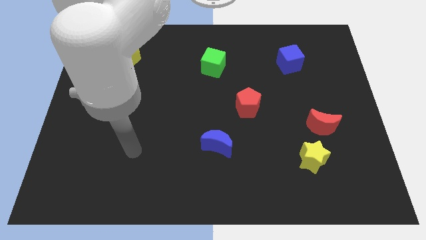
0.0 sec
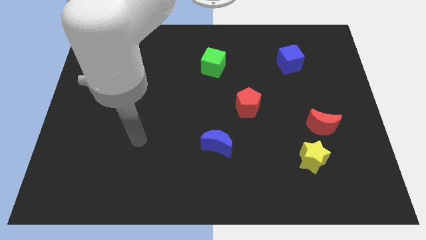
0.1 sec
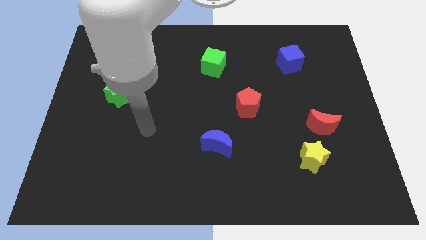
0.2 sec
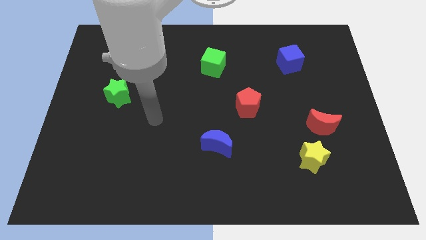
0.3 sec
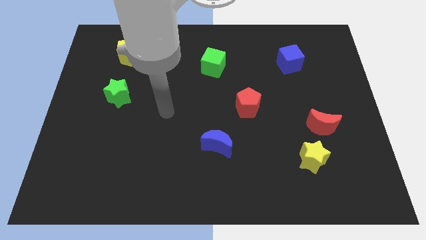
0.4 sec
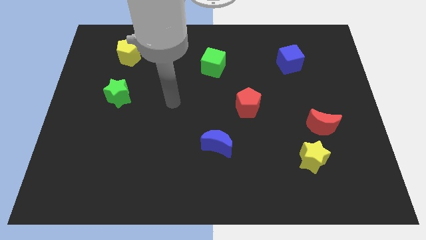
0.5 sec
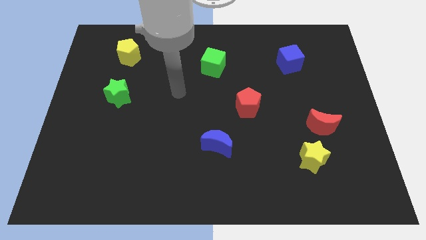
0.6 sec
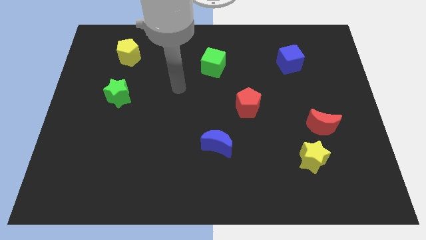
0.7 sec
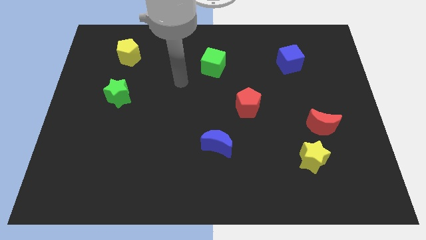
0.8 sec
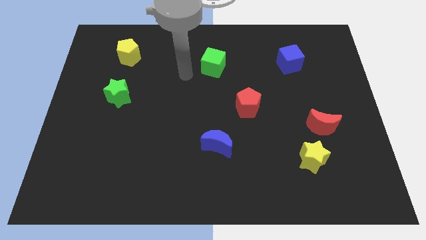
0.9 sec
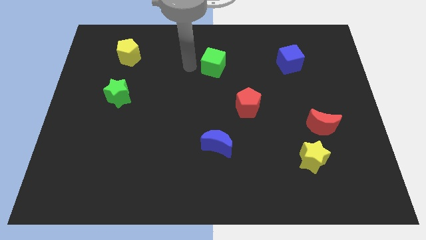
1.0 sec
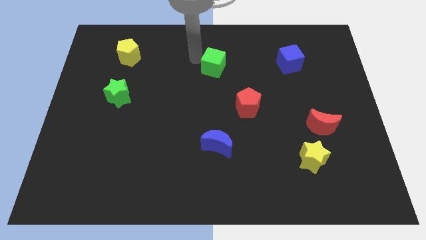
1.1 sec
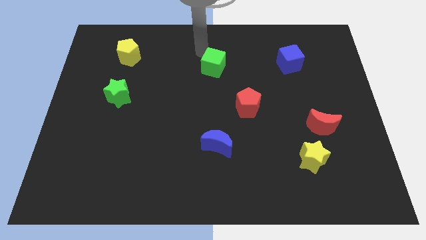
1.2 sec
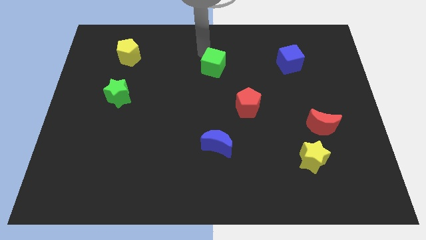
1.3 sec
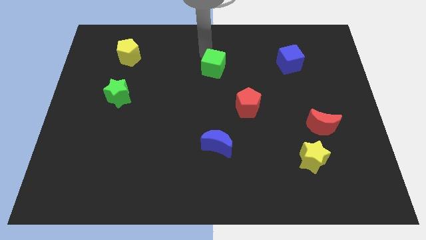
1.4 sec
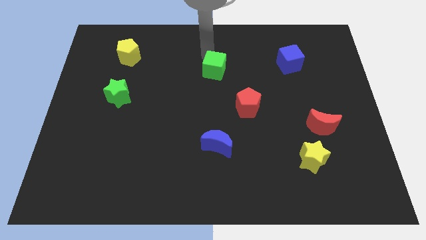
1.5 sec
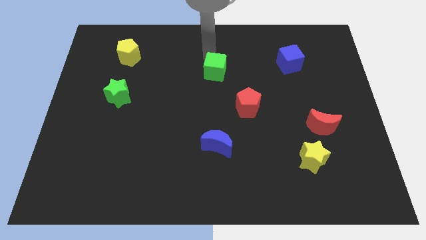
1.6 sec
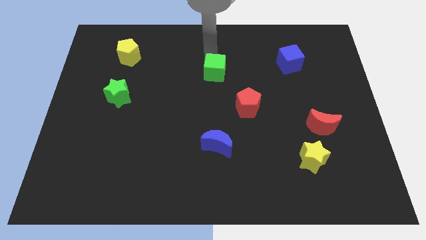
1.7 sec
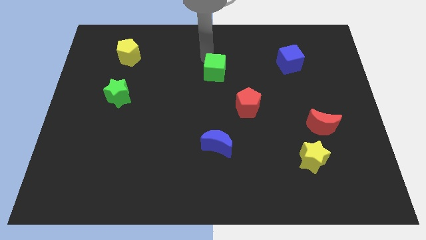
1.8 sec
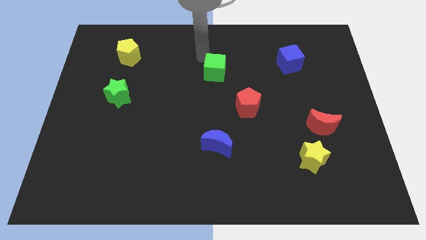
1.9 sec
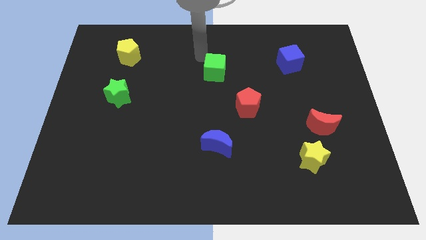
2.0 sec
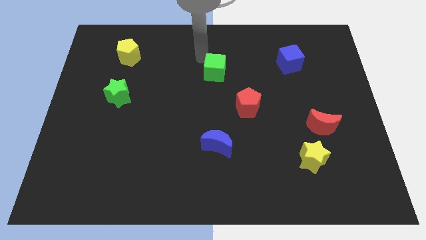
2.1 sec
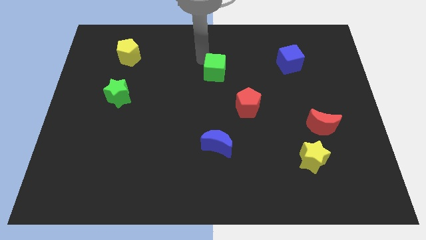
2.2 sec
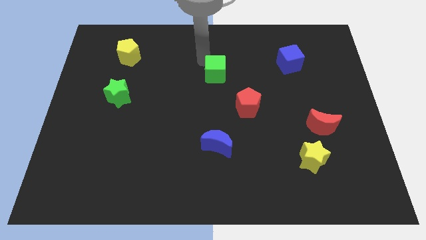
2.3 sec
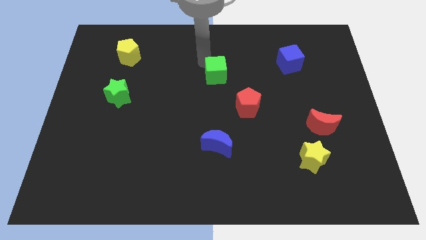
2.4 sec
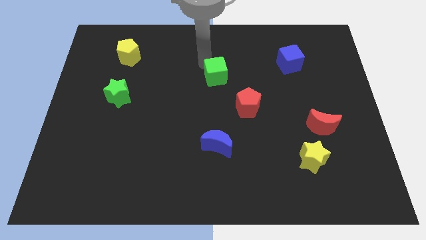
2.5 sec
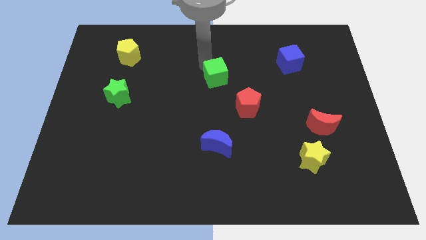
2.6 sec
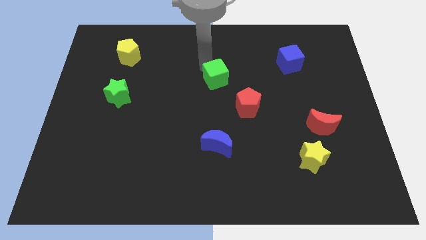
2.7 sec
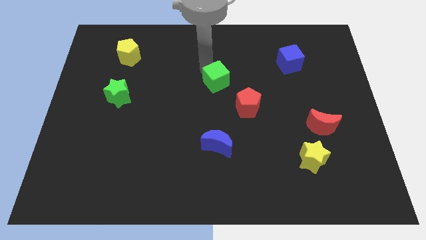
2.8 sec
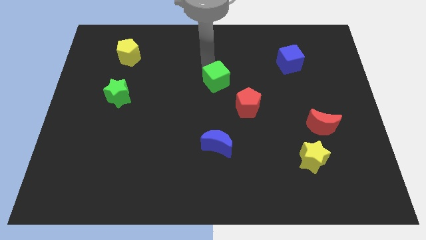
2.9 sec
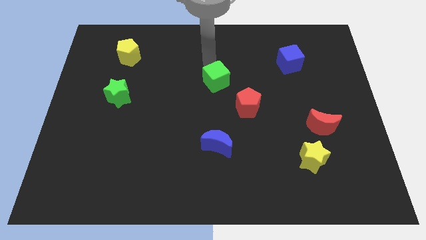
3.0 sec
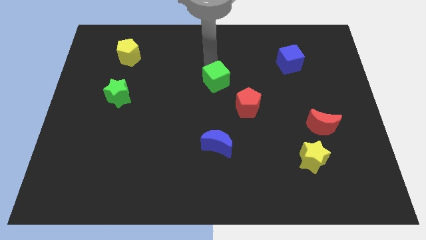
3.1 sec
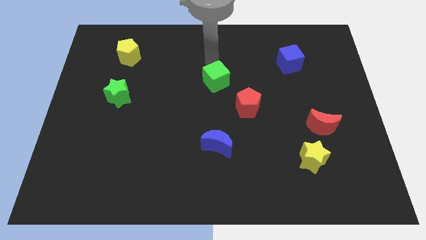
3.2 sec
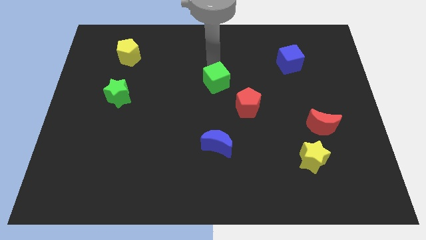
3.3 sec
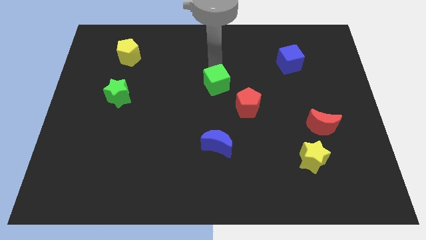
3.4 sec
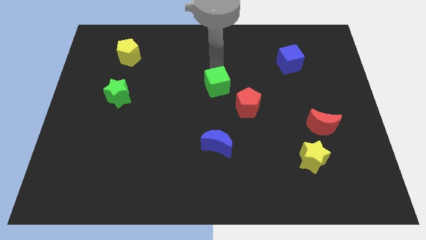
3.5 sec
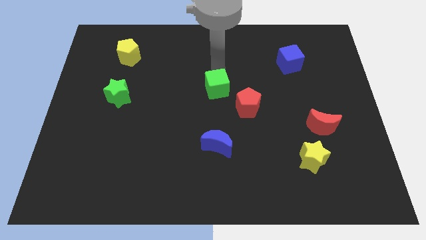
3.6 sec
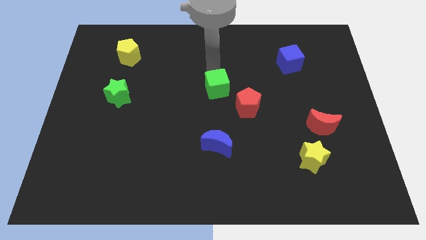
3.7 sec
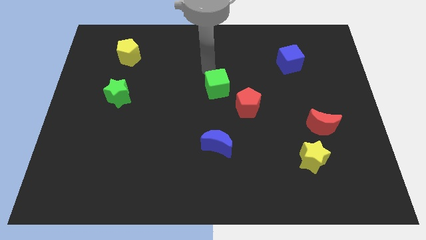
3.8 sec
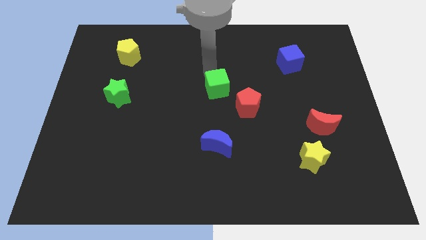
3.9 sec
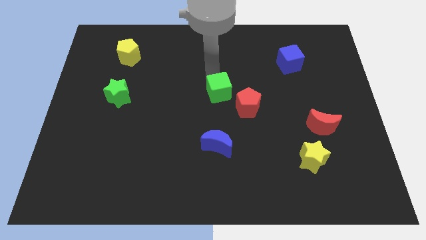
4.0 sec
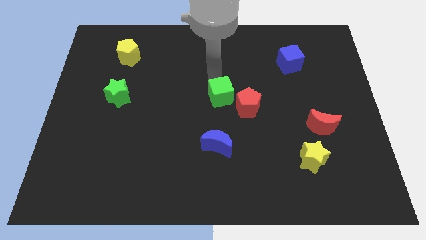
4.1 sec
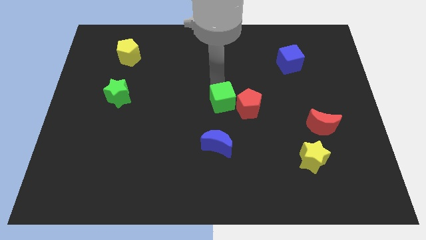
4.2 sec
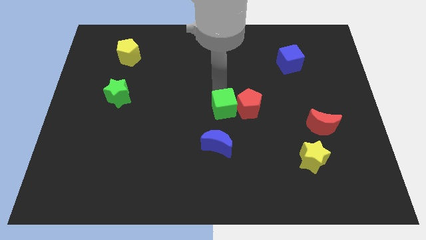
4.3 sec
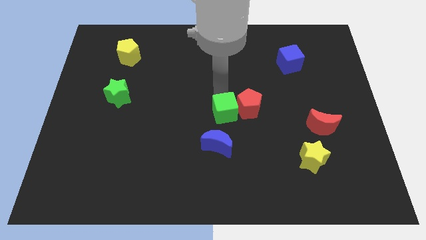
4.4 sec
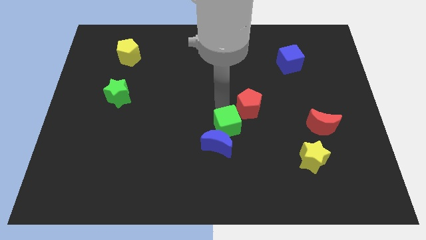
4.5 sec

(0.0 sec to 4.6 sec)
put the green cube below the red pentagon

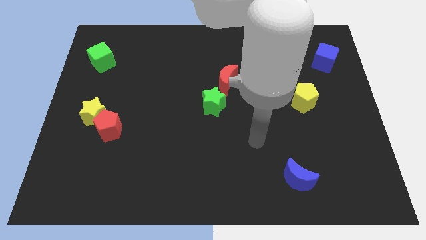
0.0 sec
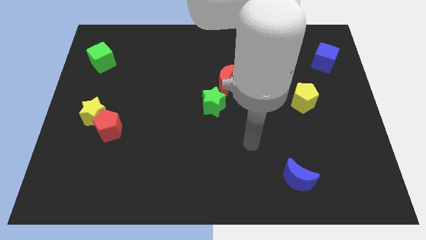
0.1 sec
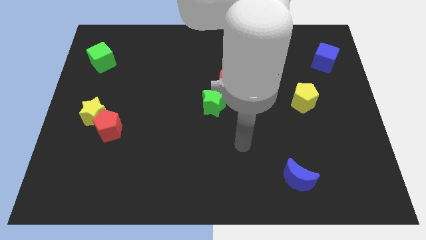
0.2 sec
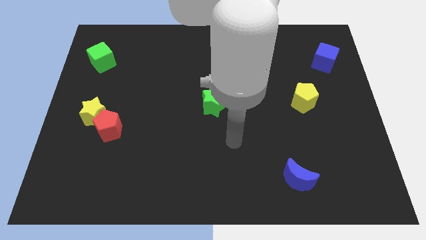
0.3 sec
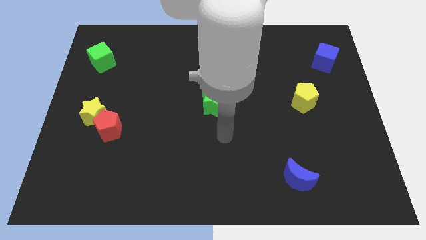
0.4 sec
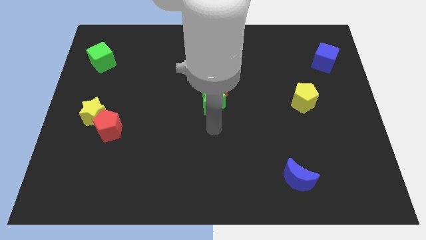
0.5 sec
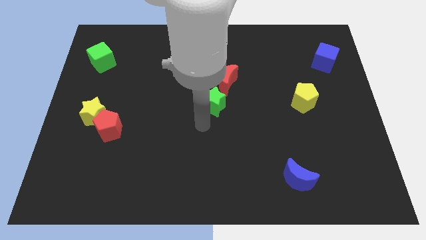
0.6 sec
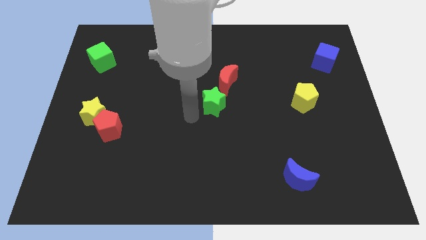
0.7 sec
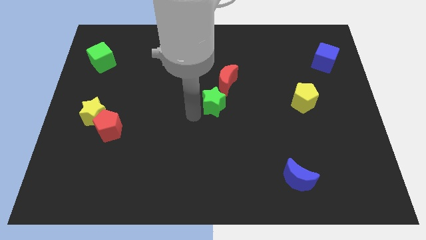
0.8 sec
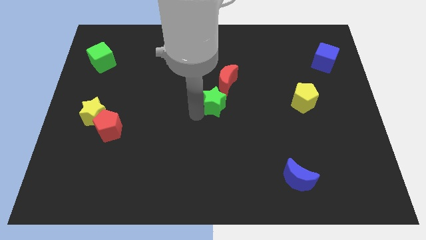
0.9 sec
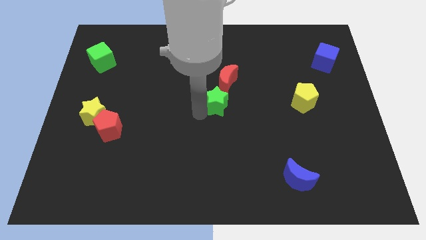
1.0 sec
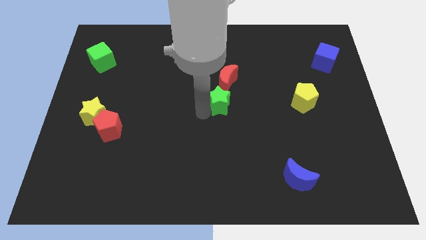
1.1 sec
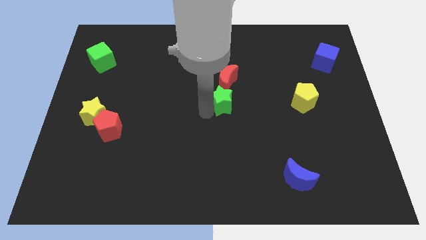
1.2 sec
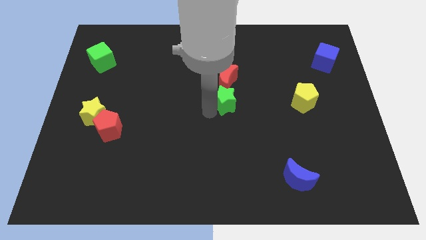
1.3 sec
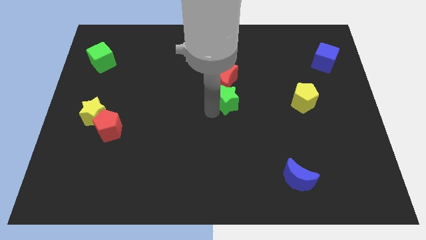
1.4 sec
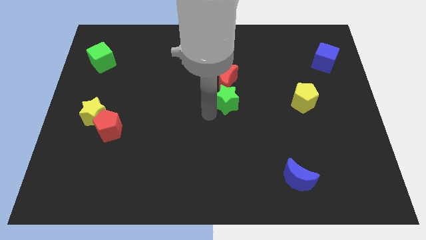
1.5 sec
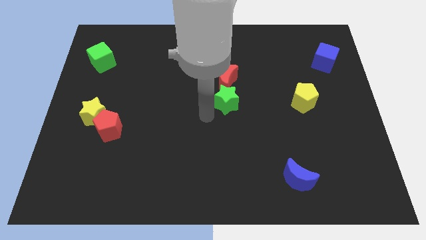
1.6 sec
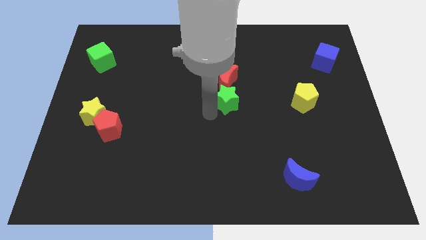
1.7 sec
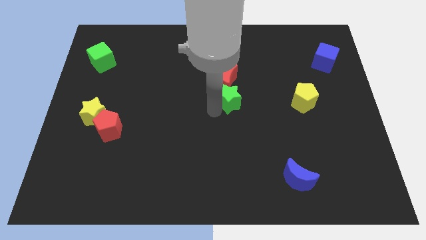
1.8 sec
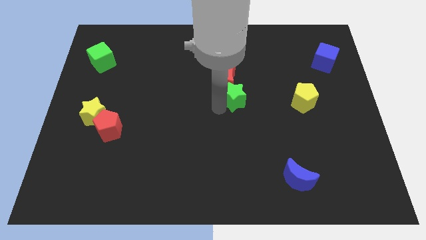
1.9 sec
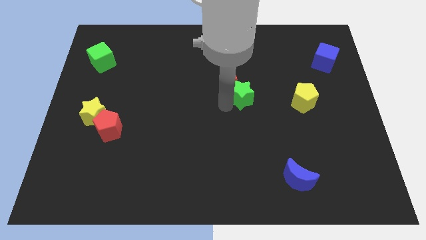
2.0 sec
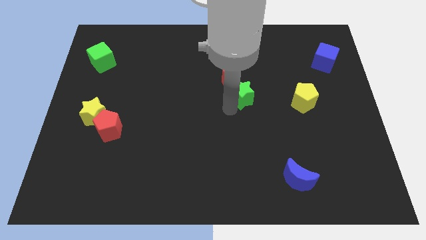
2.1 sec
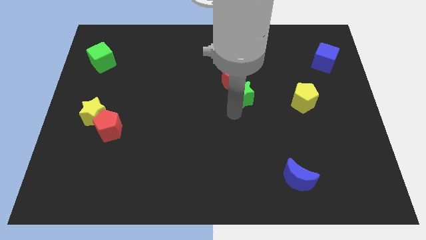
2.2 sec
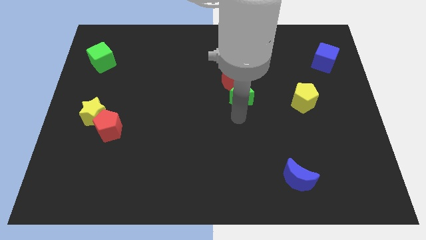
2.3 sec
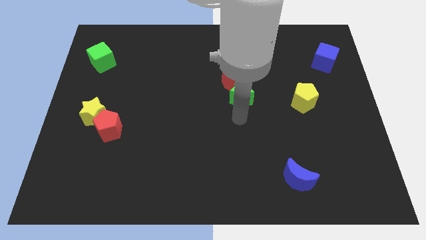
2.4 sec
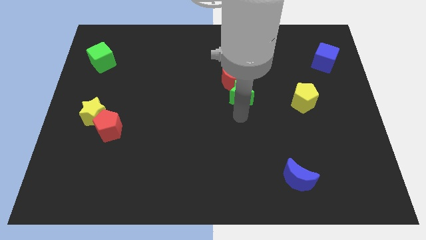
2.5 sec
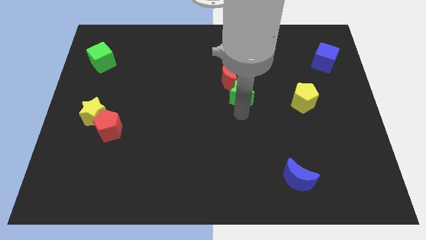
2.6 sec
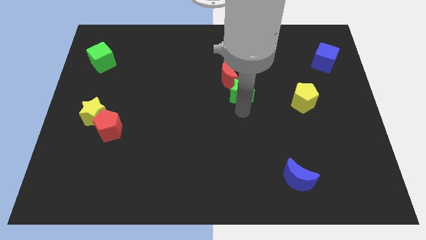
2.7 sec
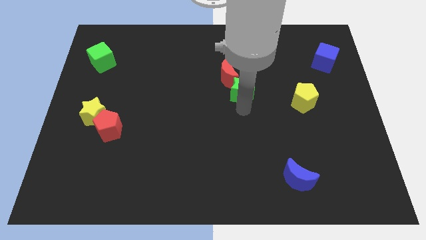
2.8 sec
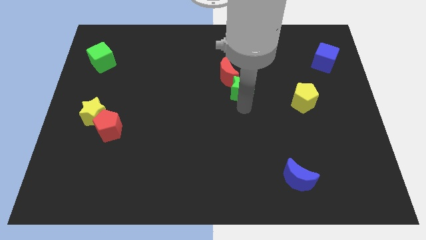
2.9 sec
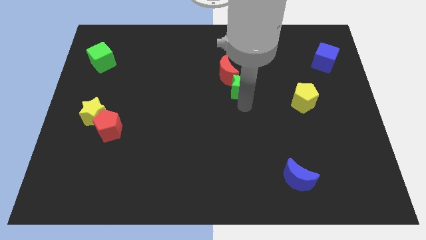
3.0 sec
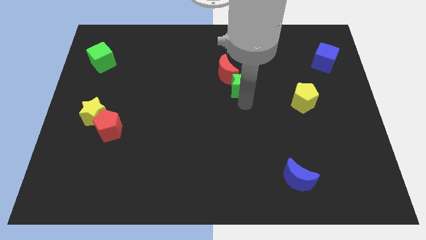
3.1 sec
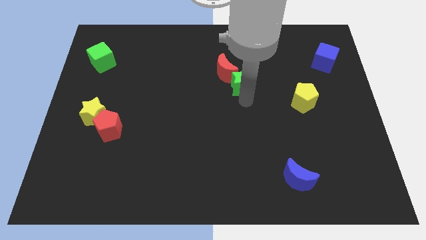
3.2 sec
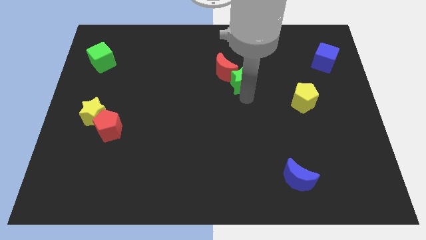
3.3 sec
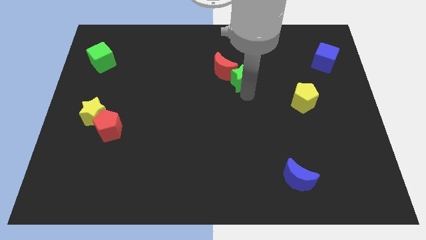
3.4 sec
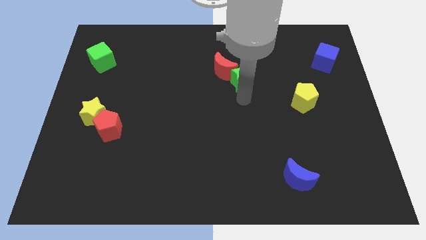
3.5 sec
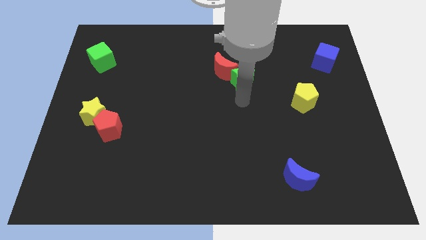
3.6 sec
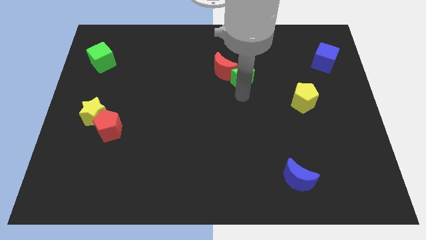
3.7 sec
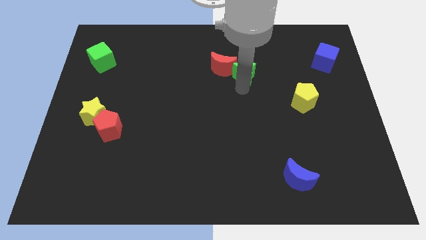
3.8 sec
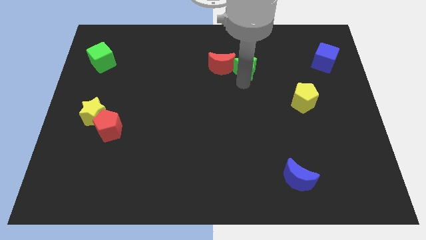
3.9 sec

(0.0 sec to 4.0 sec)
push the green star to the top right side of the red moon
